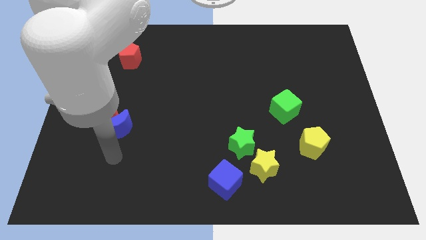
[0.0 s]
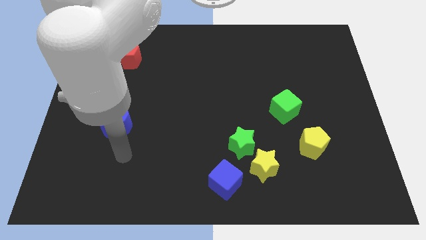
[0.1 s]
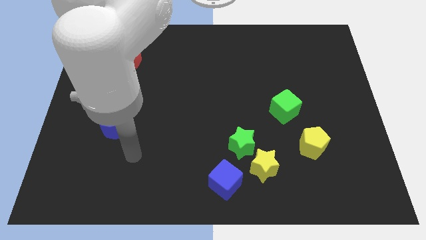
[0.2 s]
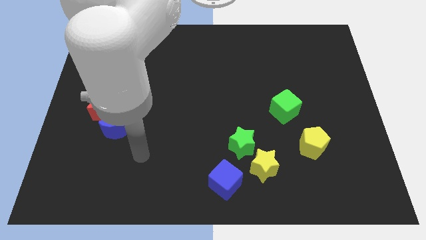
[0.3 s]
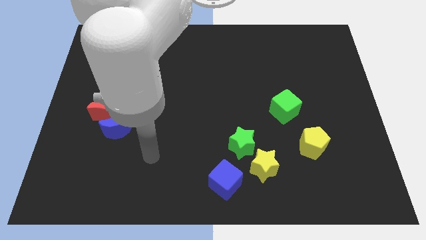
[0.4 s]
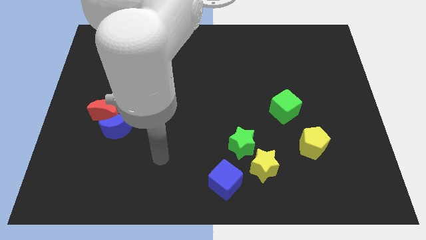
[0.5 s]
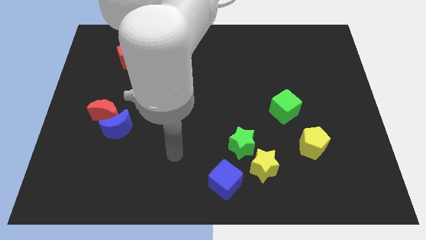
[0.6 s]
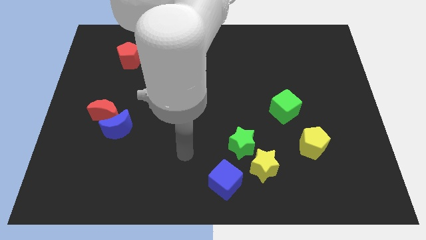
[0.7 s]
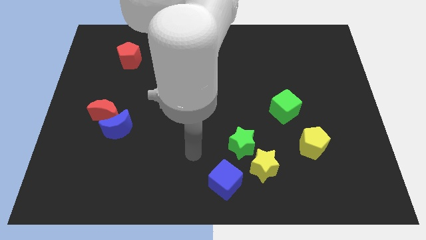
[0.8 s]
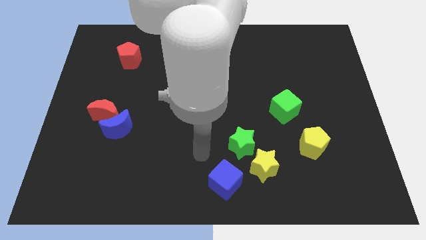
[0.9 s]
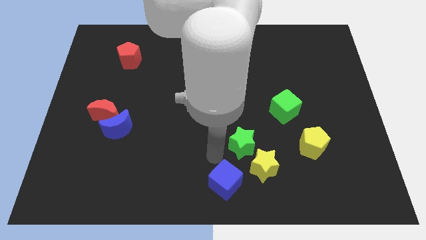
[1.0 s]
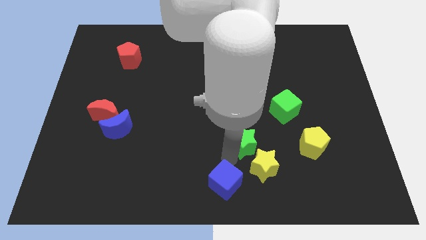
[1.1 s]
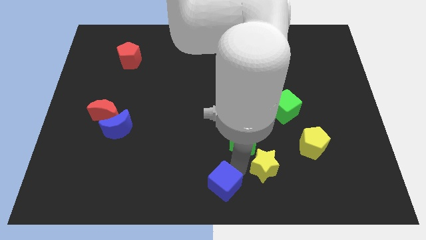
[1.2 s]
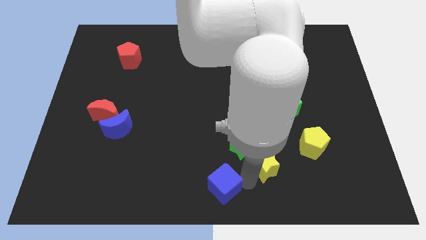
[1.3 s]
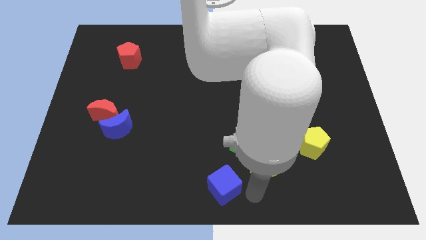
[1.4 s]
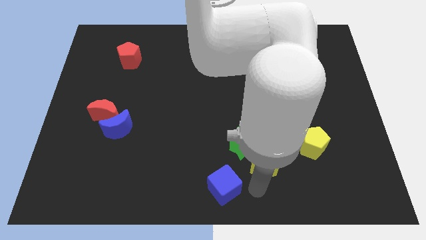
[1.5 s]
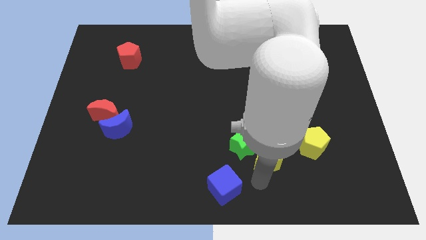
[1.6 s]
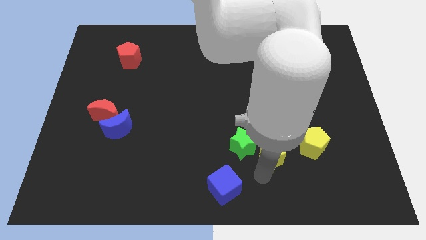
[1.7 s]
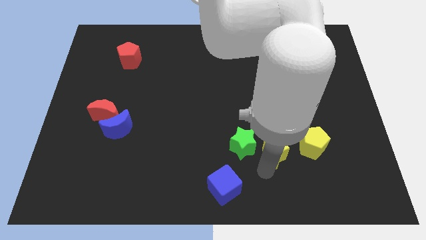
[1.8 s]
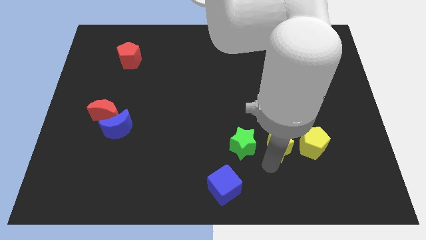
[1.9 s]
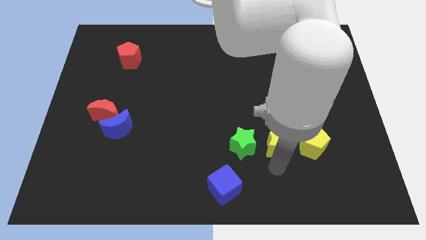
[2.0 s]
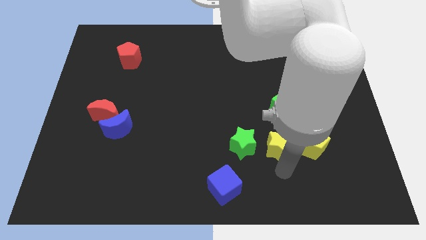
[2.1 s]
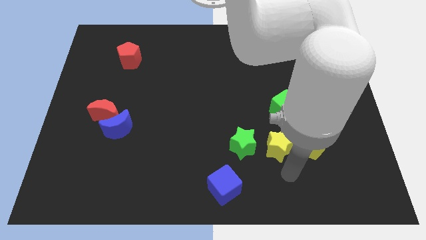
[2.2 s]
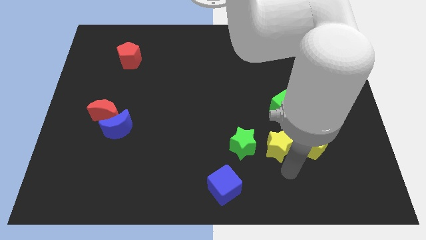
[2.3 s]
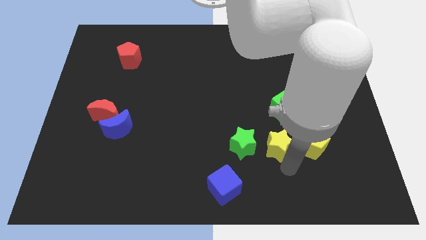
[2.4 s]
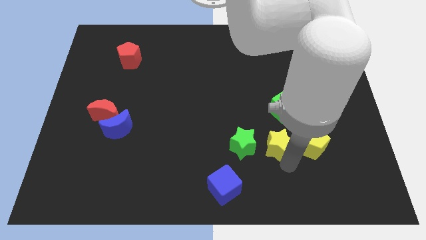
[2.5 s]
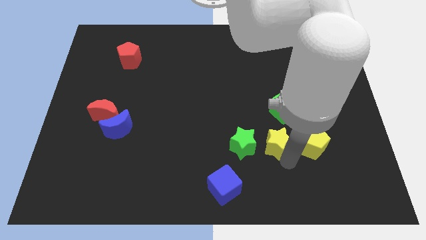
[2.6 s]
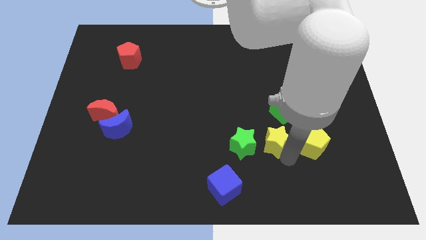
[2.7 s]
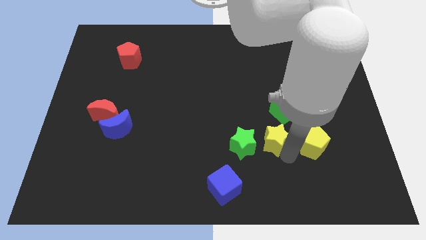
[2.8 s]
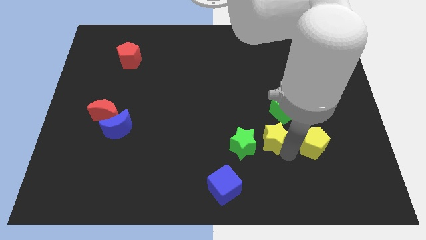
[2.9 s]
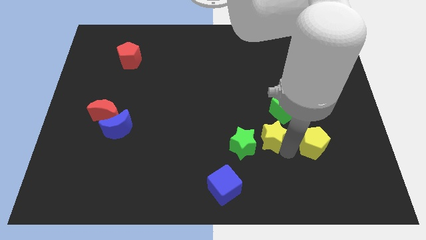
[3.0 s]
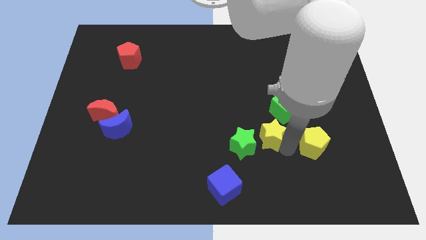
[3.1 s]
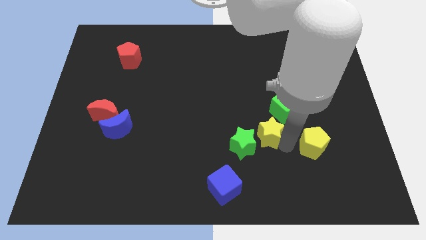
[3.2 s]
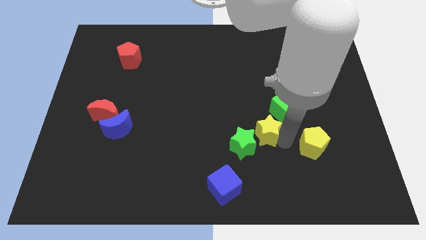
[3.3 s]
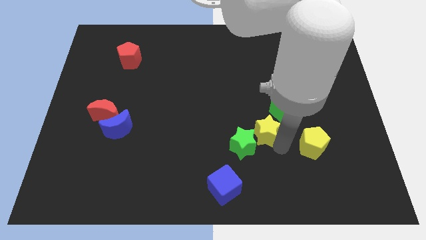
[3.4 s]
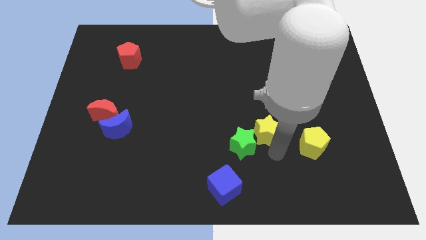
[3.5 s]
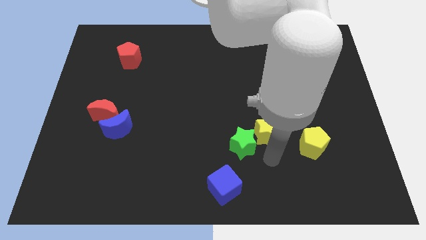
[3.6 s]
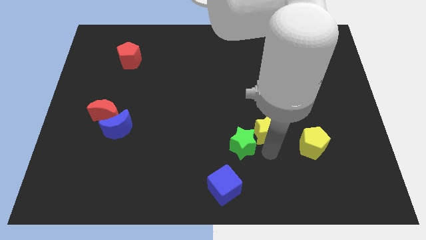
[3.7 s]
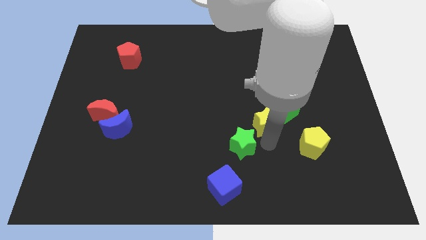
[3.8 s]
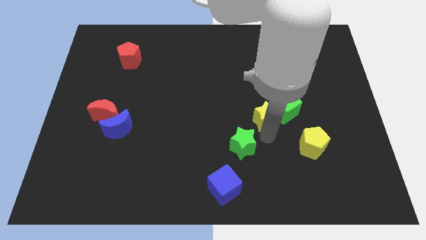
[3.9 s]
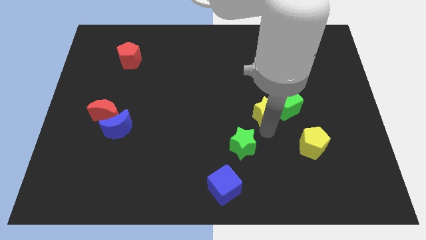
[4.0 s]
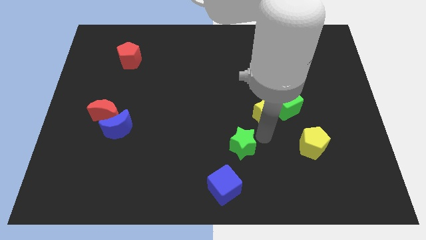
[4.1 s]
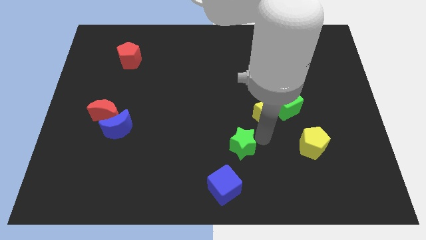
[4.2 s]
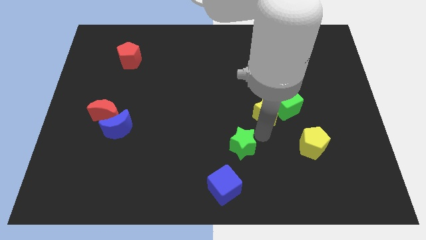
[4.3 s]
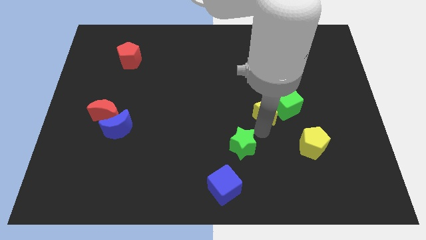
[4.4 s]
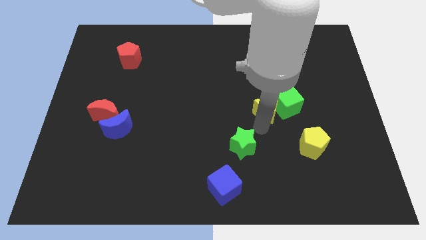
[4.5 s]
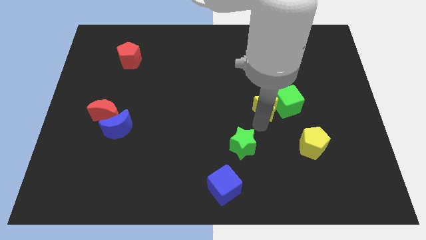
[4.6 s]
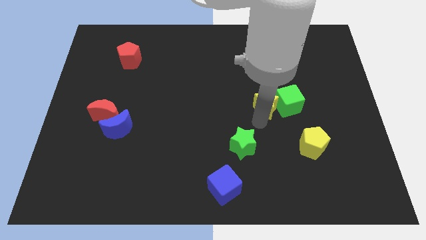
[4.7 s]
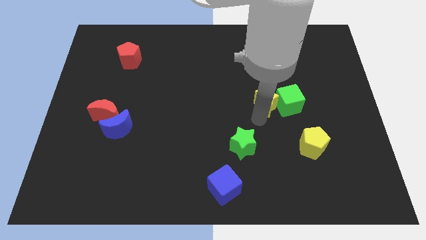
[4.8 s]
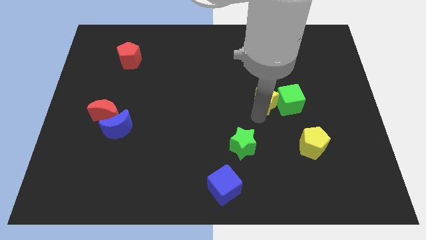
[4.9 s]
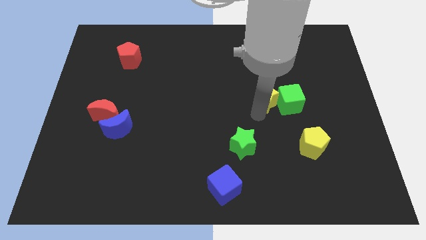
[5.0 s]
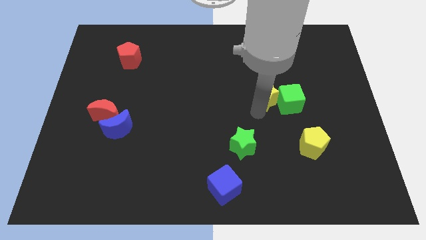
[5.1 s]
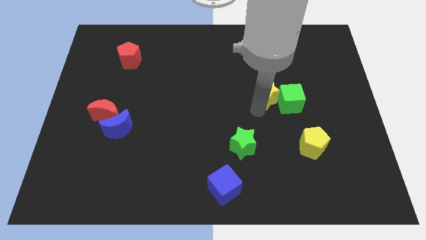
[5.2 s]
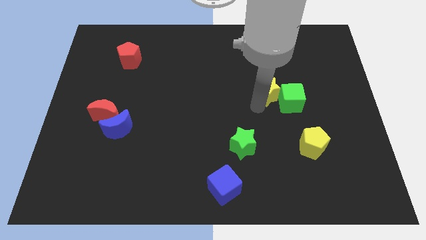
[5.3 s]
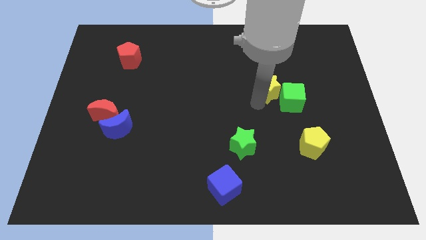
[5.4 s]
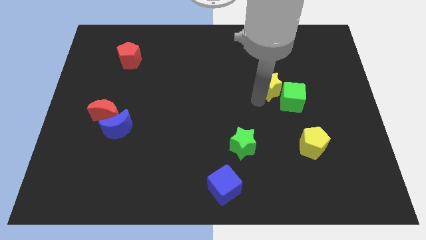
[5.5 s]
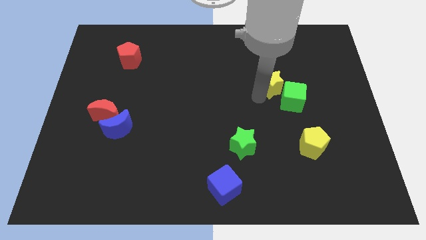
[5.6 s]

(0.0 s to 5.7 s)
slide the yellow star to the top of the green cube

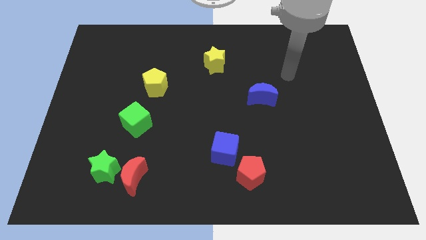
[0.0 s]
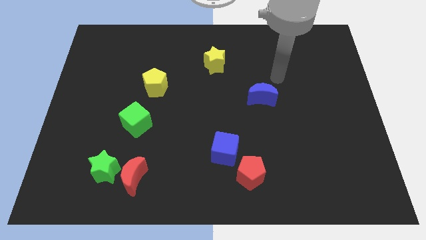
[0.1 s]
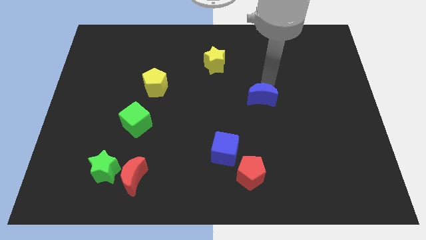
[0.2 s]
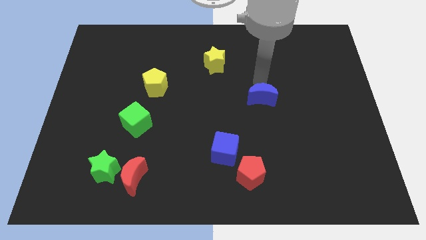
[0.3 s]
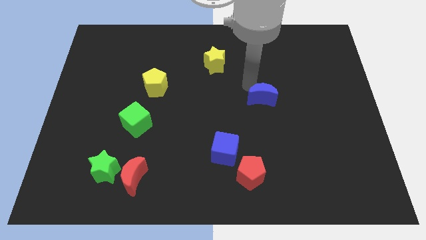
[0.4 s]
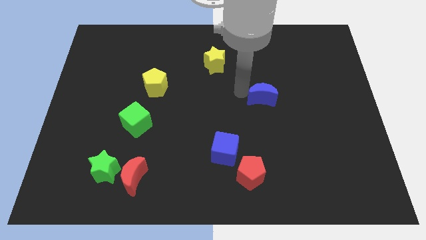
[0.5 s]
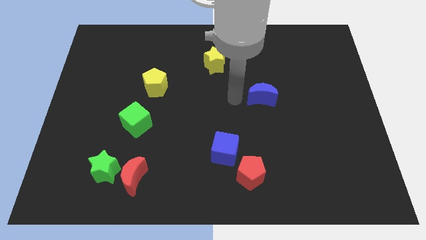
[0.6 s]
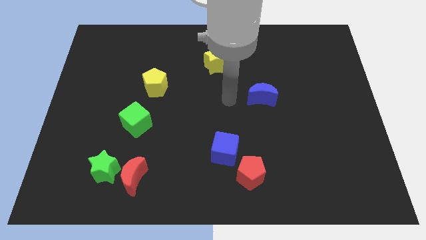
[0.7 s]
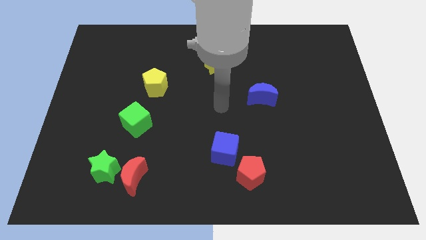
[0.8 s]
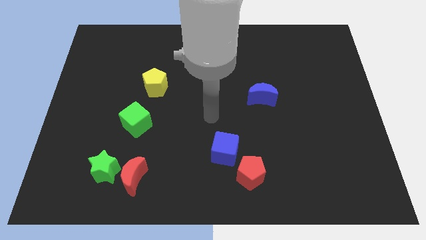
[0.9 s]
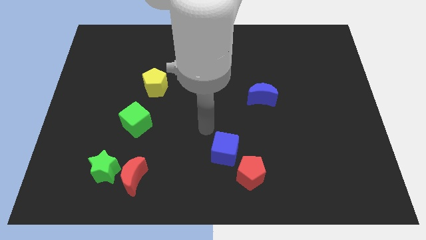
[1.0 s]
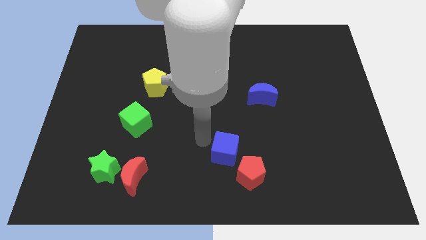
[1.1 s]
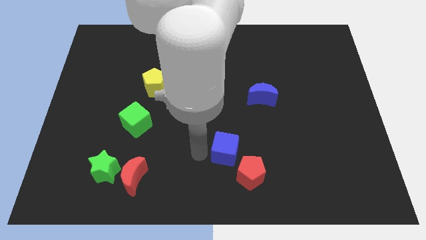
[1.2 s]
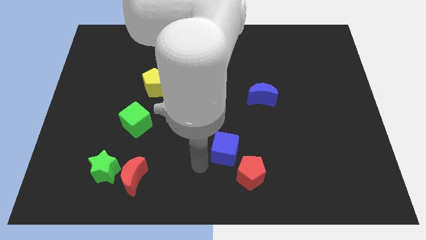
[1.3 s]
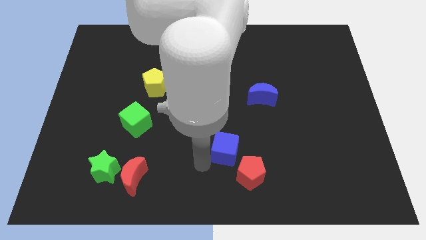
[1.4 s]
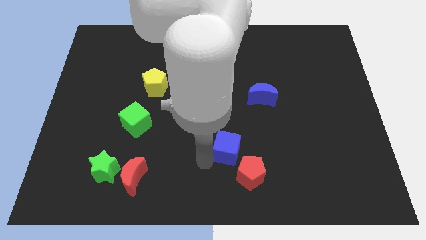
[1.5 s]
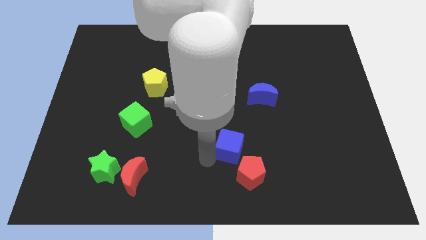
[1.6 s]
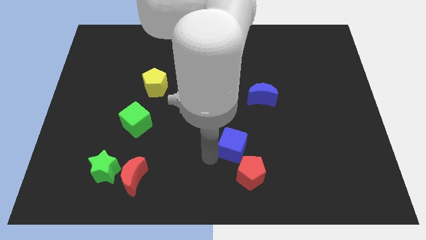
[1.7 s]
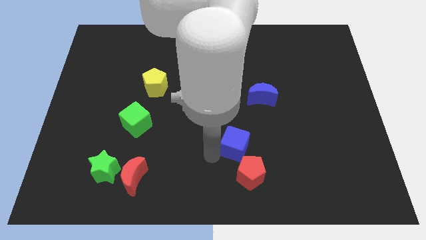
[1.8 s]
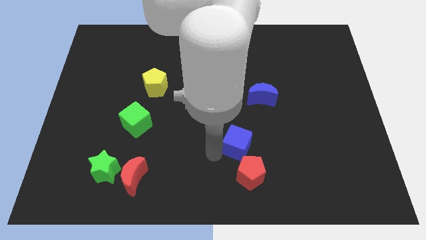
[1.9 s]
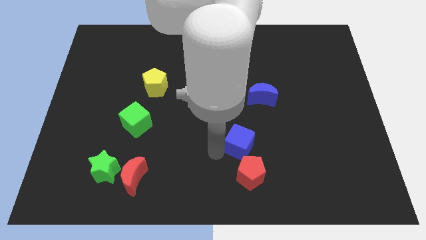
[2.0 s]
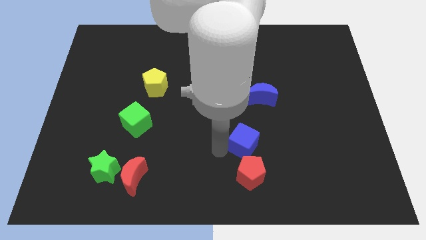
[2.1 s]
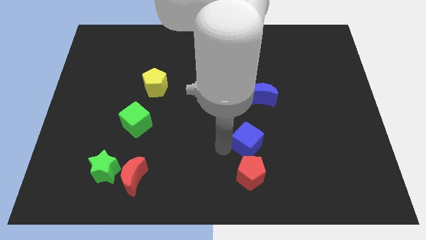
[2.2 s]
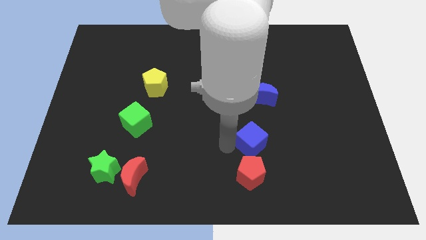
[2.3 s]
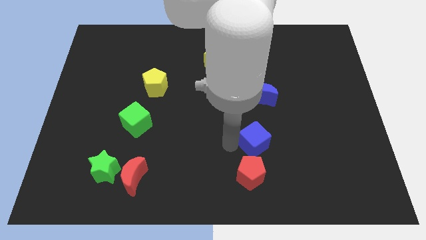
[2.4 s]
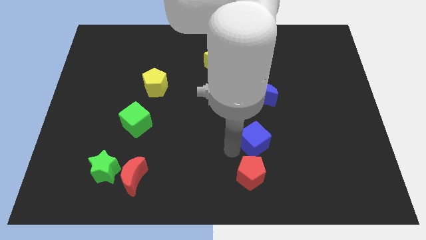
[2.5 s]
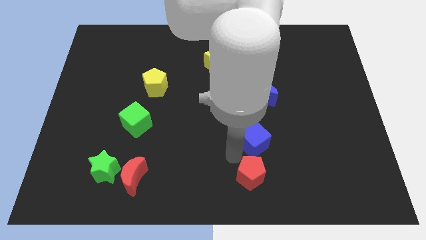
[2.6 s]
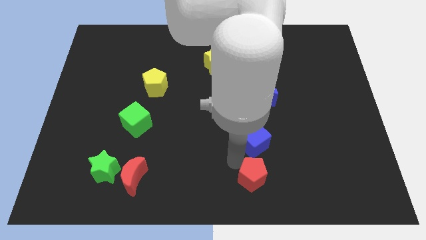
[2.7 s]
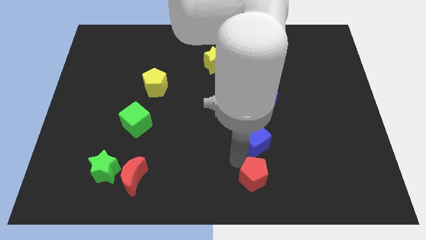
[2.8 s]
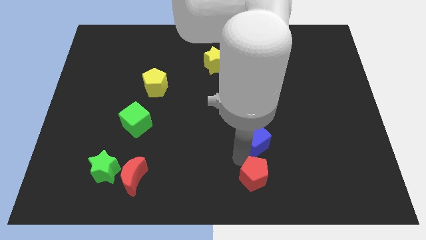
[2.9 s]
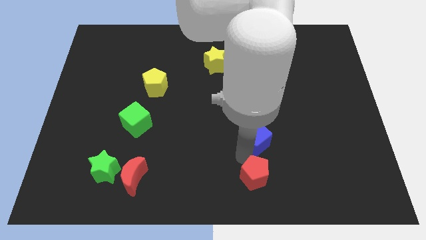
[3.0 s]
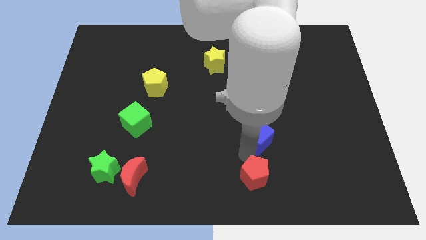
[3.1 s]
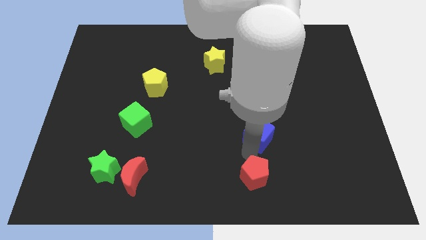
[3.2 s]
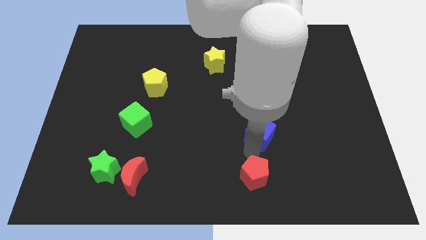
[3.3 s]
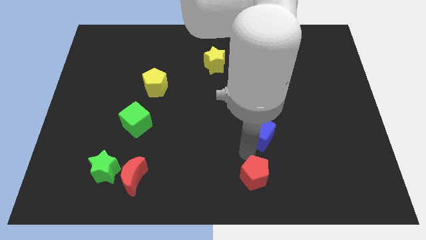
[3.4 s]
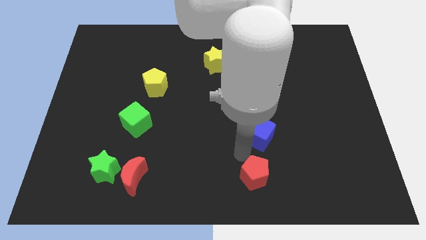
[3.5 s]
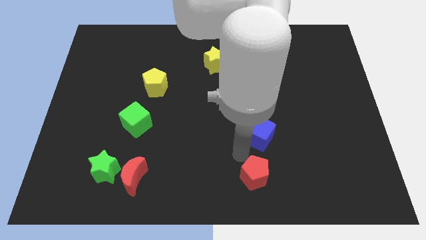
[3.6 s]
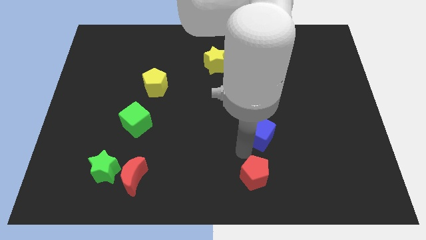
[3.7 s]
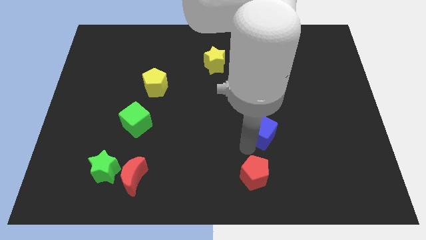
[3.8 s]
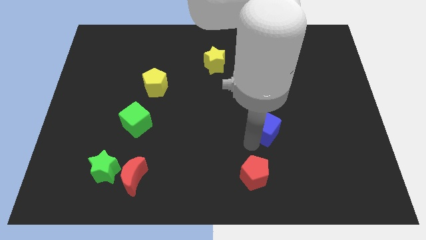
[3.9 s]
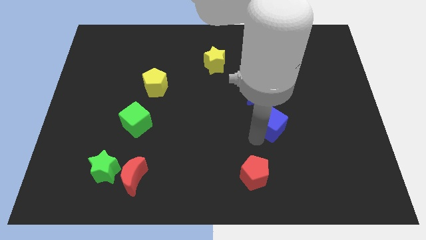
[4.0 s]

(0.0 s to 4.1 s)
put the blue cube to the bottom right of the blue moon
